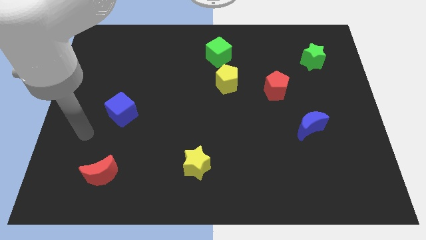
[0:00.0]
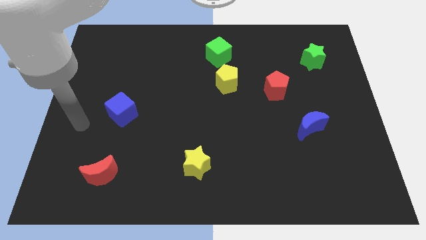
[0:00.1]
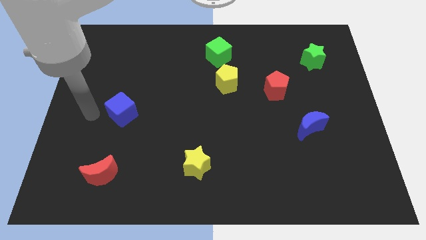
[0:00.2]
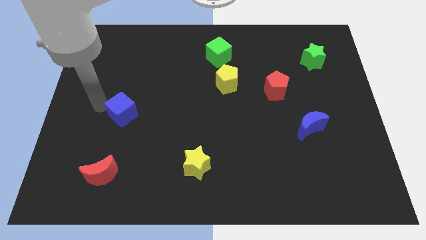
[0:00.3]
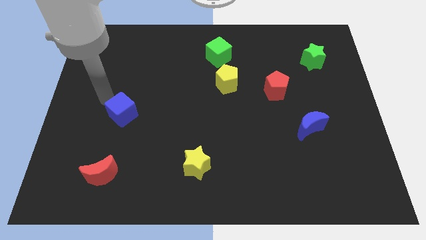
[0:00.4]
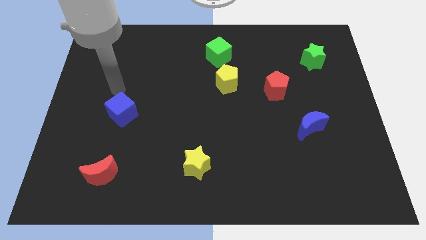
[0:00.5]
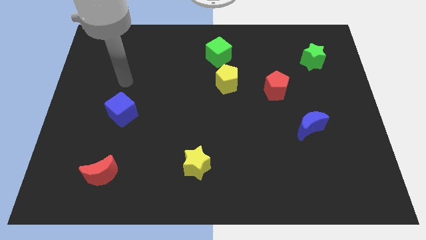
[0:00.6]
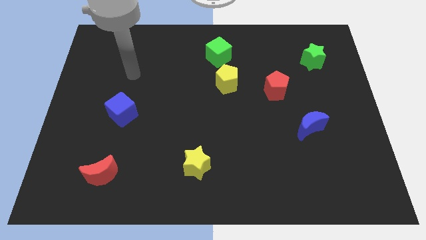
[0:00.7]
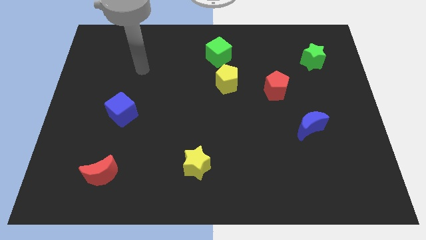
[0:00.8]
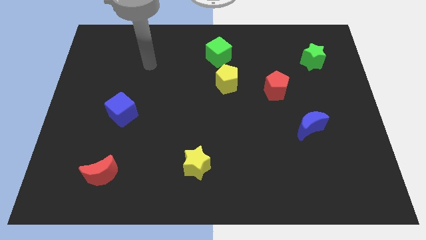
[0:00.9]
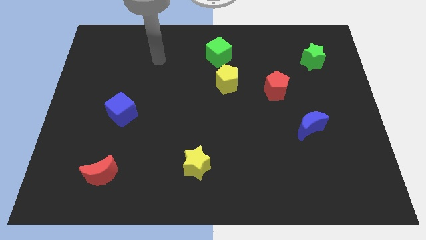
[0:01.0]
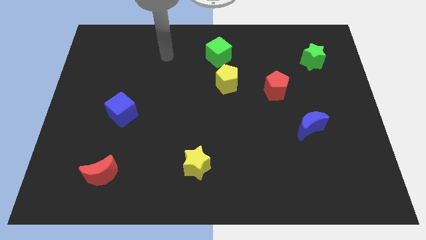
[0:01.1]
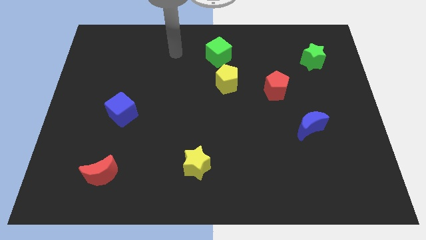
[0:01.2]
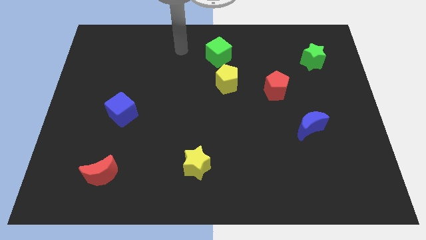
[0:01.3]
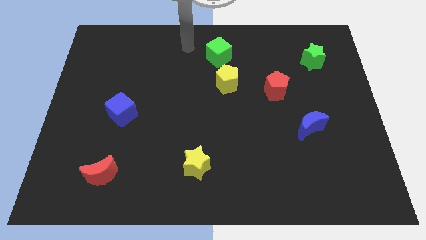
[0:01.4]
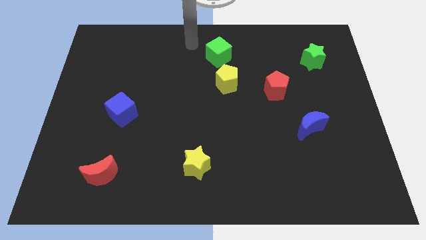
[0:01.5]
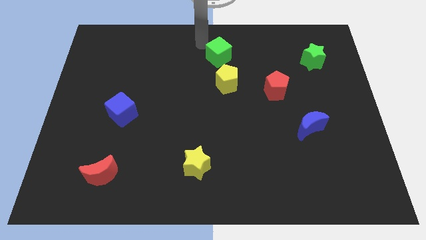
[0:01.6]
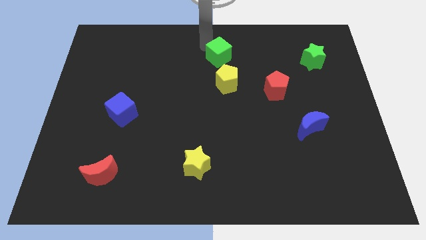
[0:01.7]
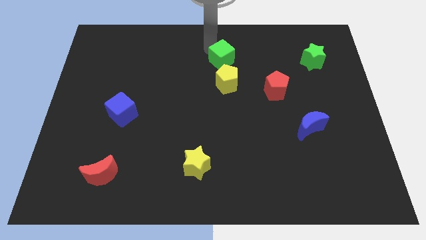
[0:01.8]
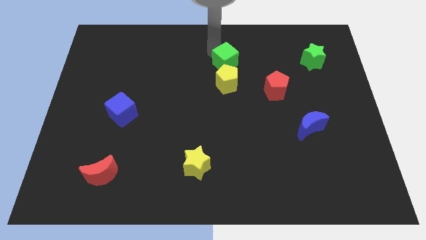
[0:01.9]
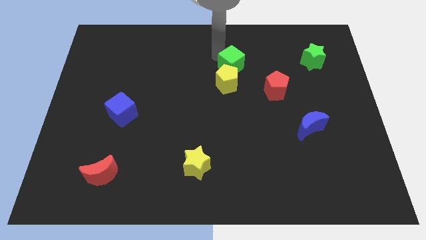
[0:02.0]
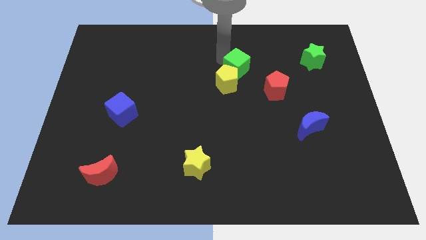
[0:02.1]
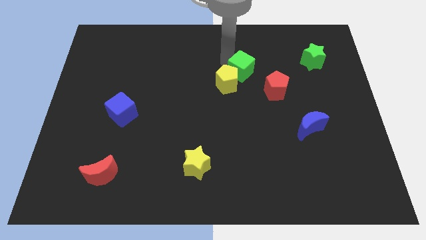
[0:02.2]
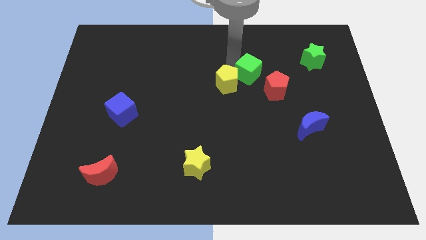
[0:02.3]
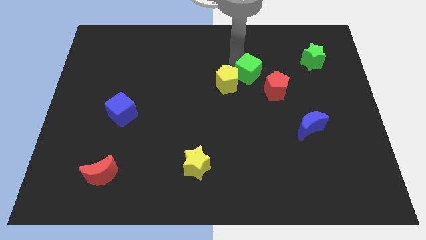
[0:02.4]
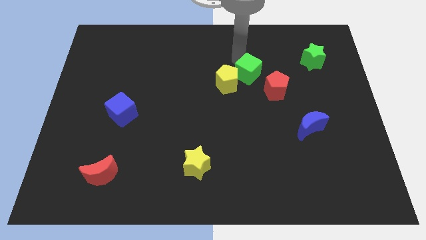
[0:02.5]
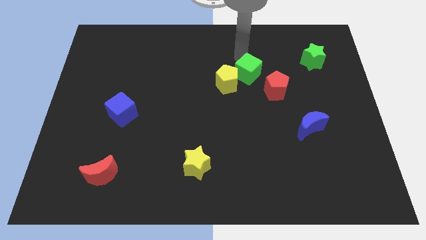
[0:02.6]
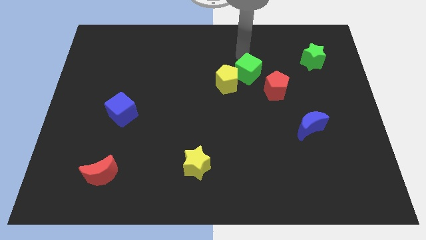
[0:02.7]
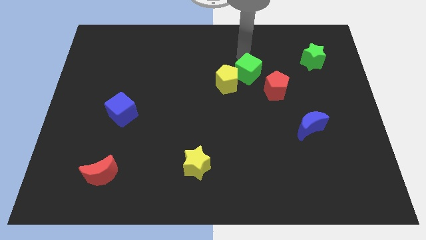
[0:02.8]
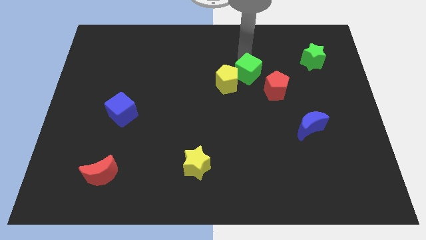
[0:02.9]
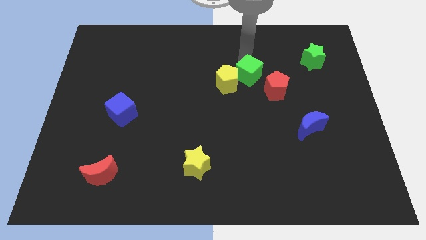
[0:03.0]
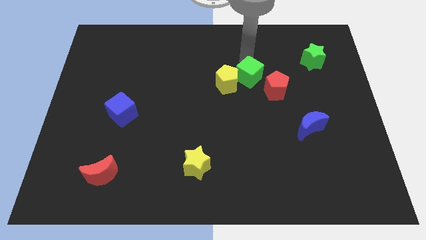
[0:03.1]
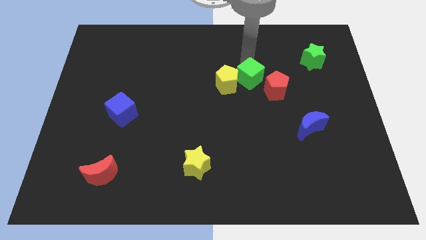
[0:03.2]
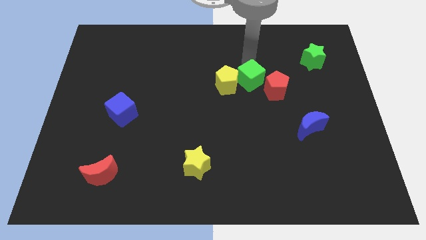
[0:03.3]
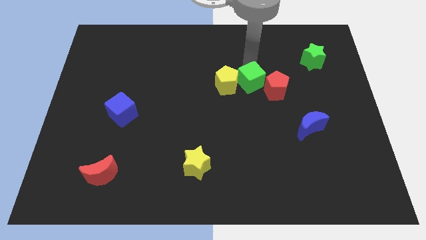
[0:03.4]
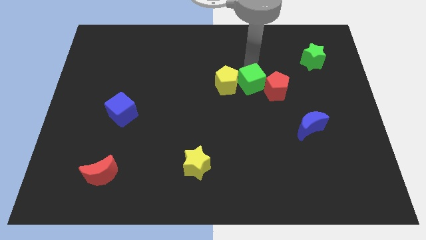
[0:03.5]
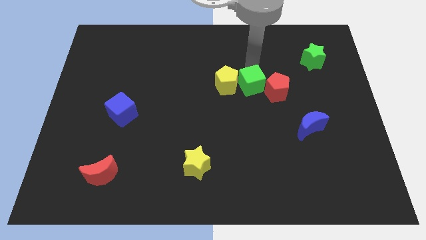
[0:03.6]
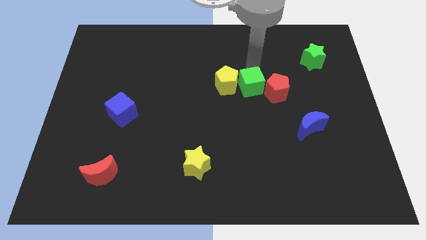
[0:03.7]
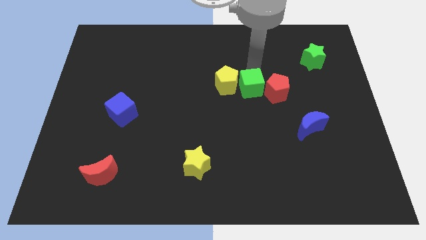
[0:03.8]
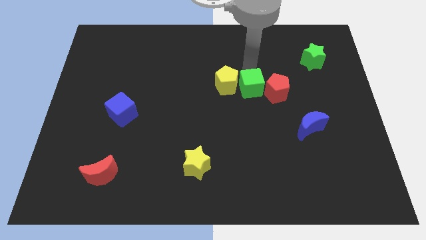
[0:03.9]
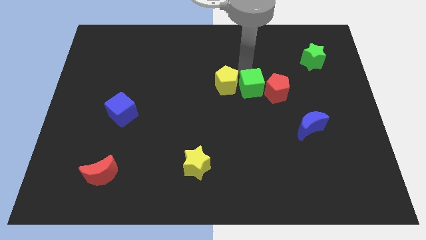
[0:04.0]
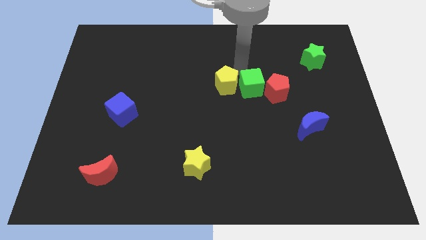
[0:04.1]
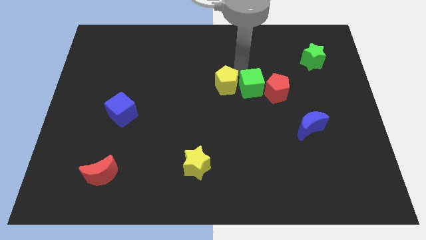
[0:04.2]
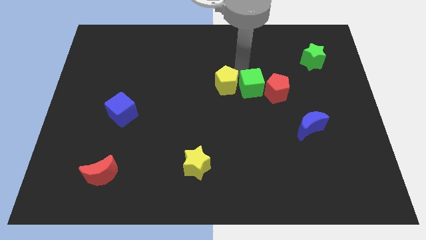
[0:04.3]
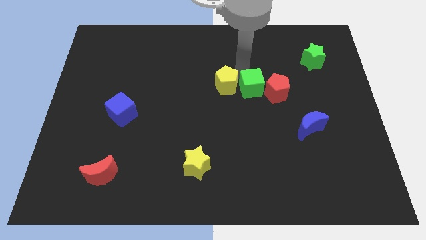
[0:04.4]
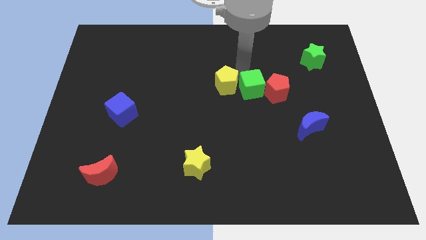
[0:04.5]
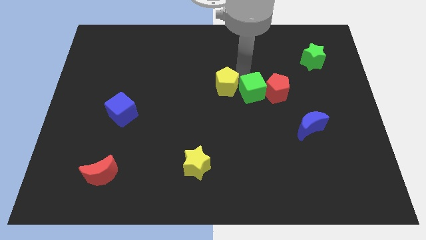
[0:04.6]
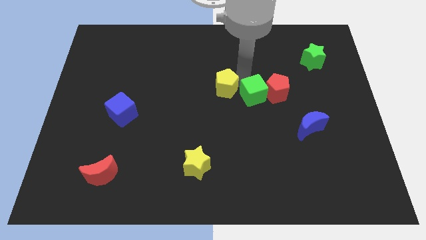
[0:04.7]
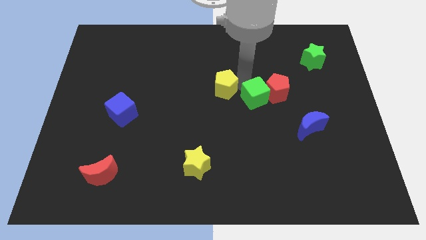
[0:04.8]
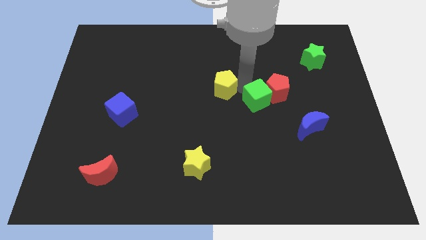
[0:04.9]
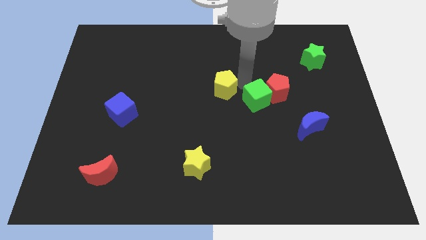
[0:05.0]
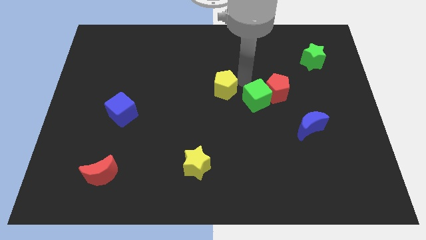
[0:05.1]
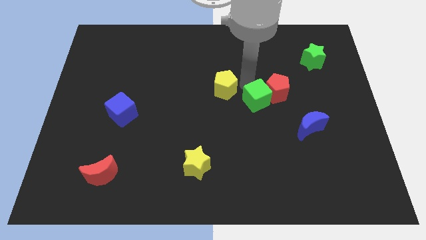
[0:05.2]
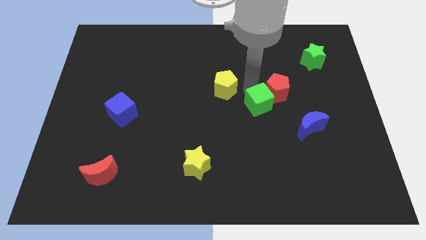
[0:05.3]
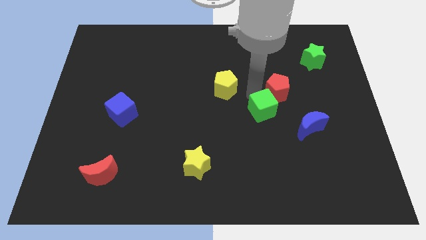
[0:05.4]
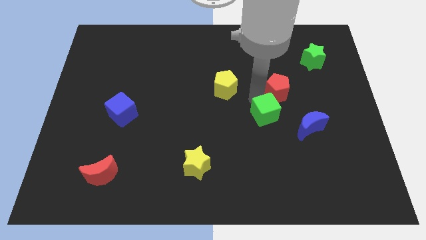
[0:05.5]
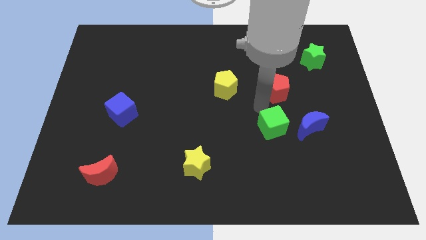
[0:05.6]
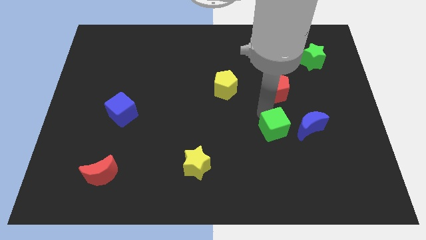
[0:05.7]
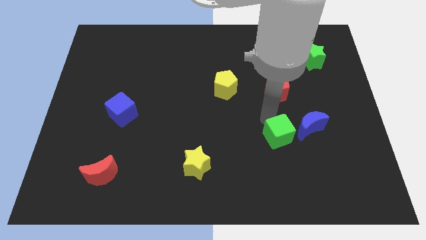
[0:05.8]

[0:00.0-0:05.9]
push the green cube diagonally down and to the left of the blue moon

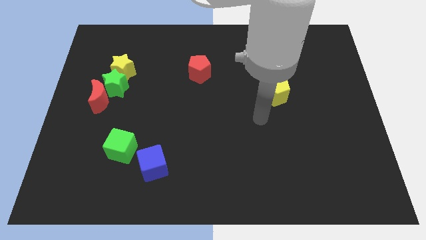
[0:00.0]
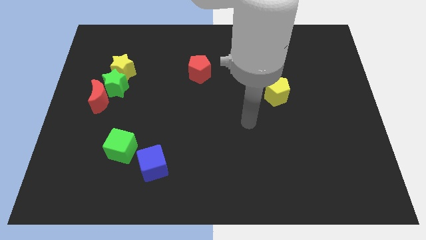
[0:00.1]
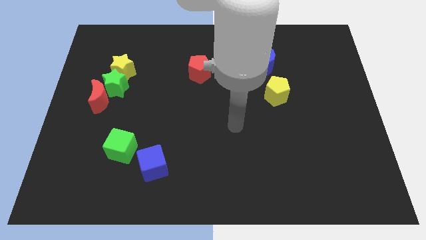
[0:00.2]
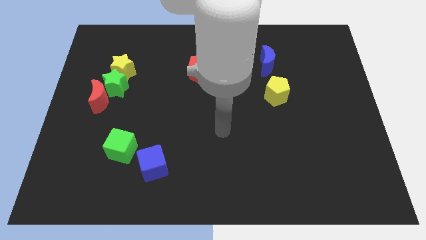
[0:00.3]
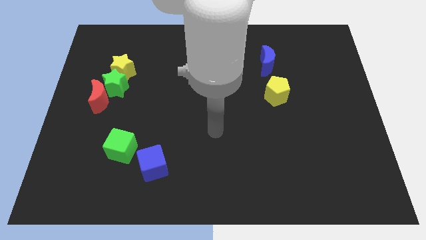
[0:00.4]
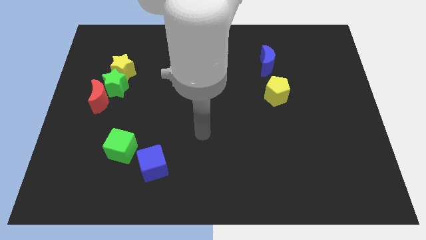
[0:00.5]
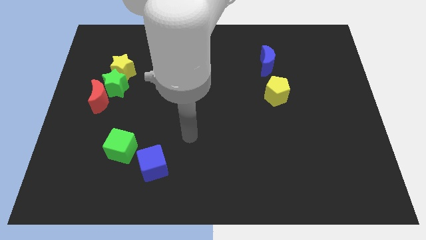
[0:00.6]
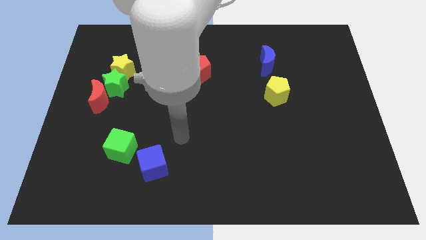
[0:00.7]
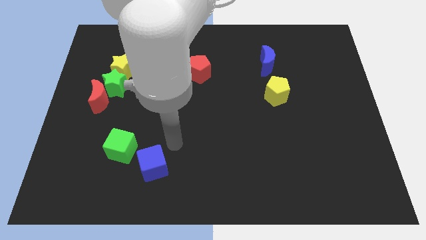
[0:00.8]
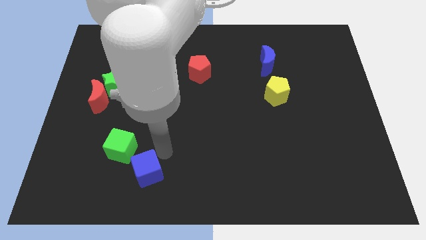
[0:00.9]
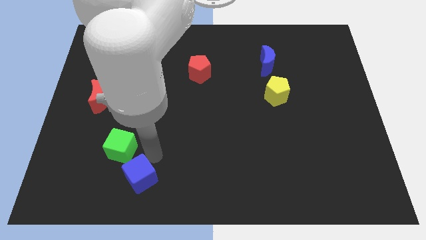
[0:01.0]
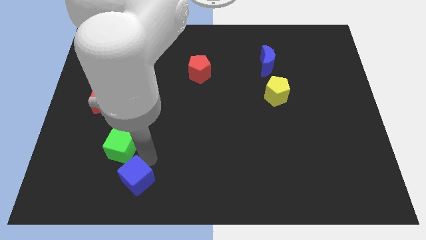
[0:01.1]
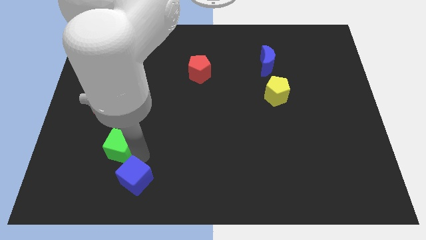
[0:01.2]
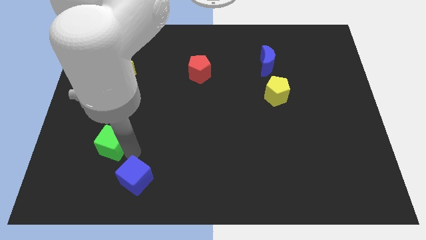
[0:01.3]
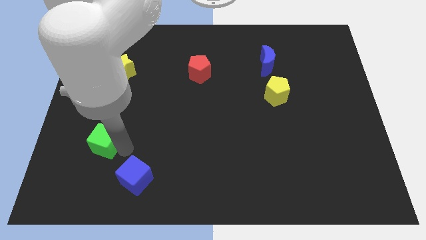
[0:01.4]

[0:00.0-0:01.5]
put the green cube to the bottom side of the red moon
